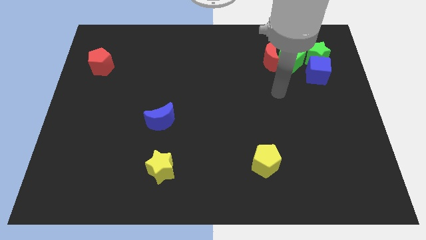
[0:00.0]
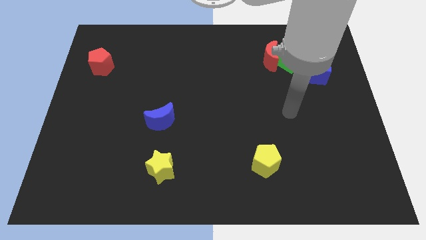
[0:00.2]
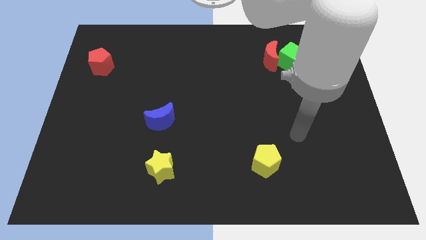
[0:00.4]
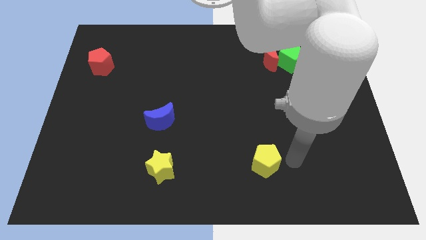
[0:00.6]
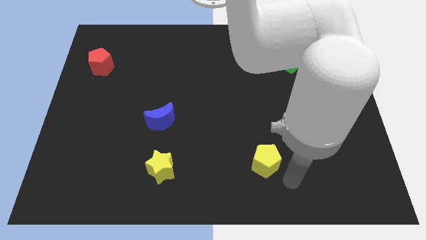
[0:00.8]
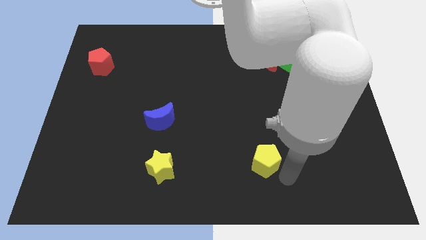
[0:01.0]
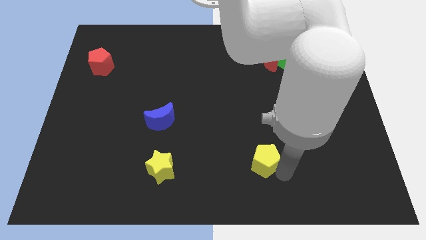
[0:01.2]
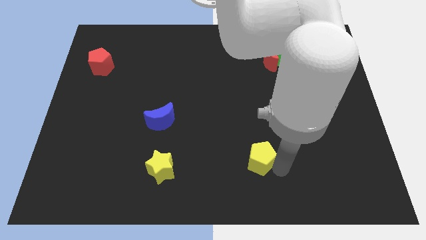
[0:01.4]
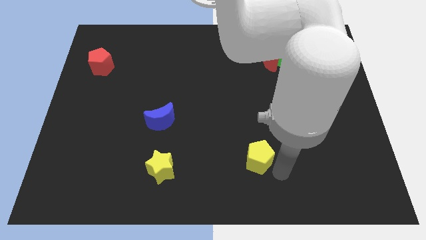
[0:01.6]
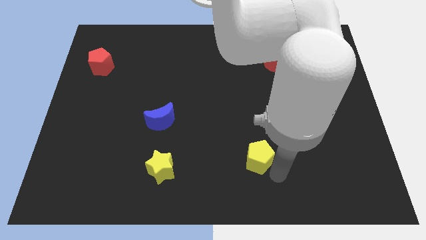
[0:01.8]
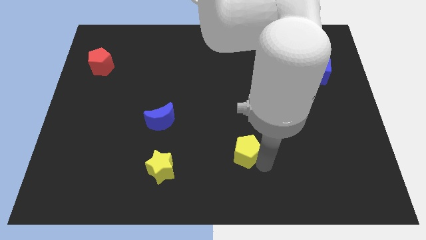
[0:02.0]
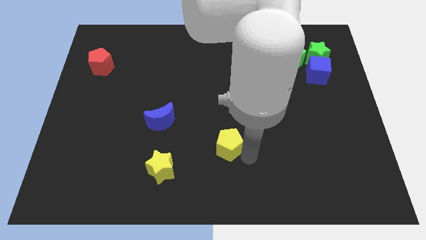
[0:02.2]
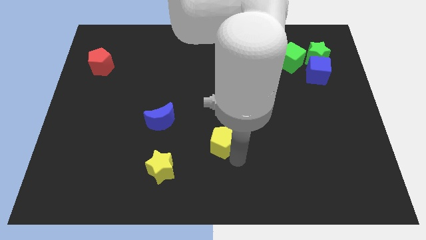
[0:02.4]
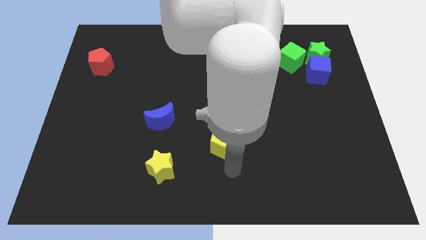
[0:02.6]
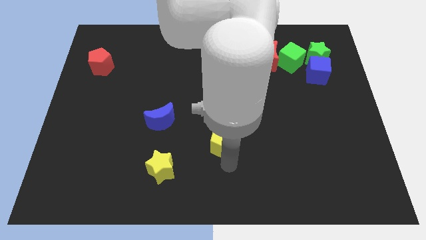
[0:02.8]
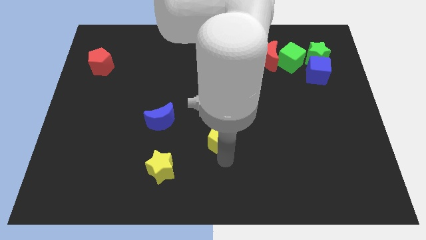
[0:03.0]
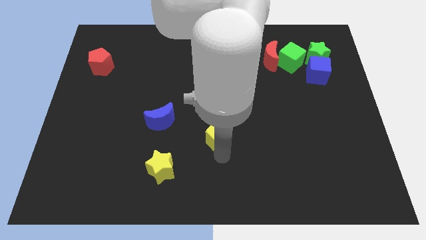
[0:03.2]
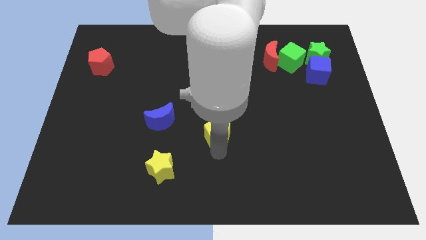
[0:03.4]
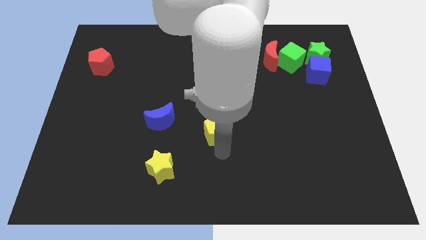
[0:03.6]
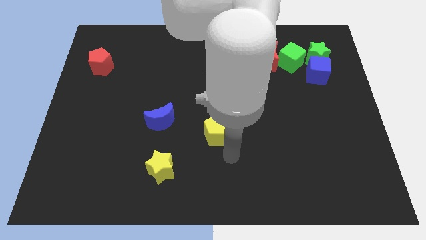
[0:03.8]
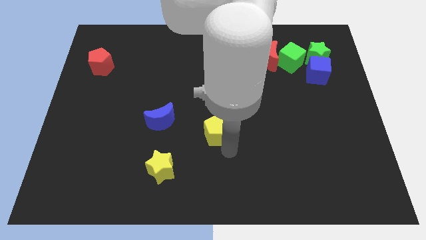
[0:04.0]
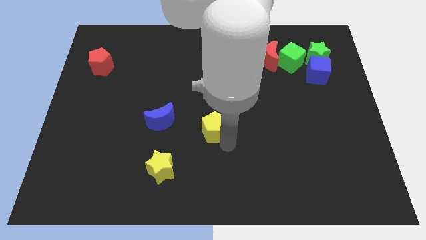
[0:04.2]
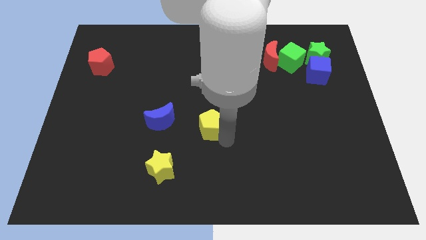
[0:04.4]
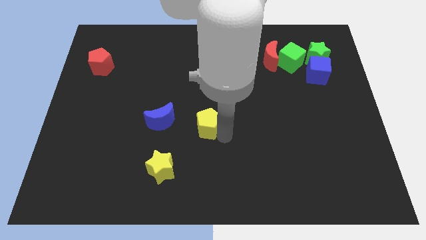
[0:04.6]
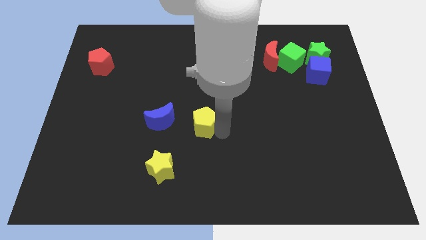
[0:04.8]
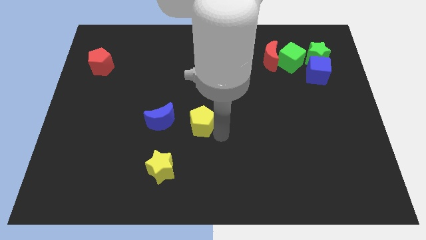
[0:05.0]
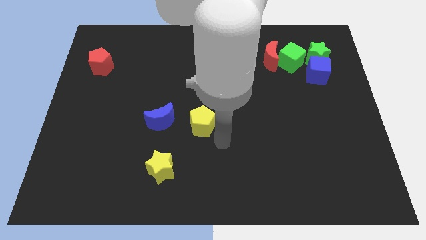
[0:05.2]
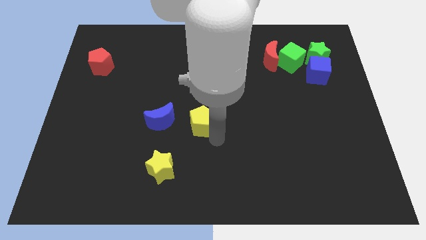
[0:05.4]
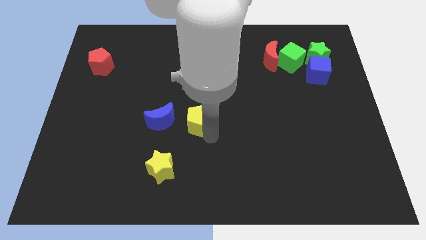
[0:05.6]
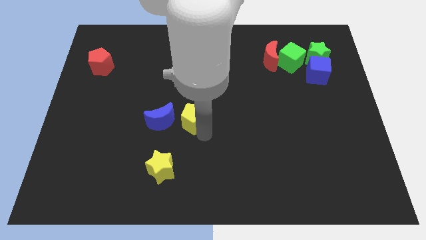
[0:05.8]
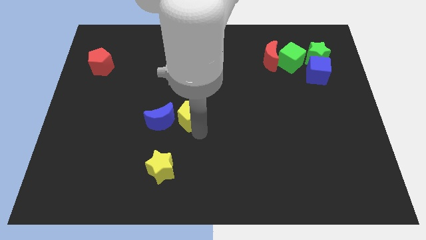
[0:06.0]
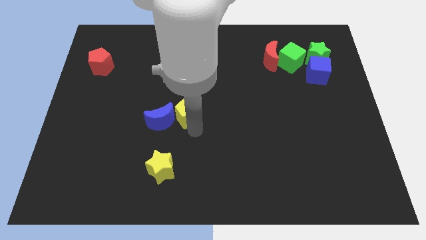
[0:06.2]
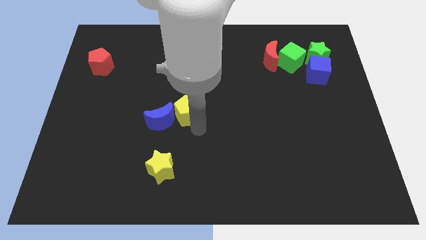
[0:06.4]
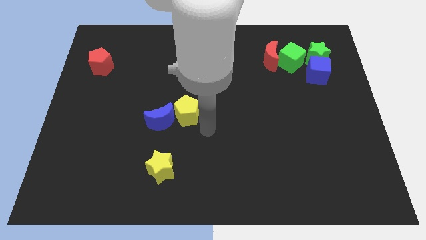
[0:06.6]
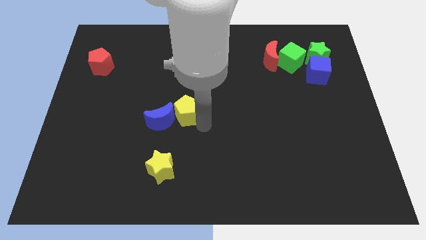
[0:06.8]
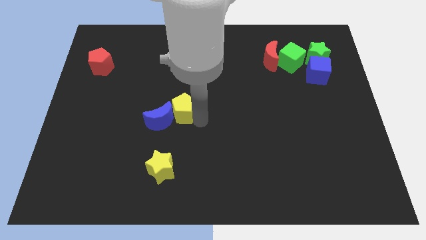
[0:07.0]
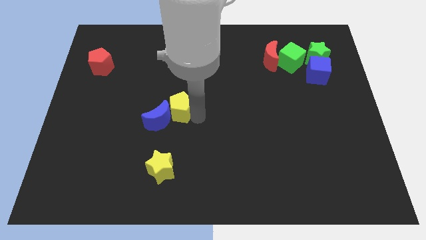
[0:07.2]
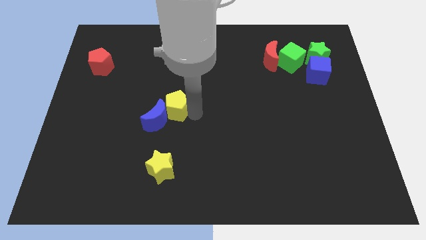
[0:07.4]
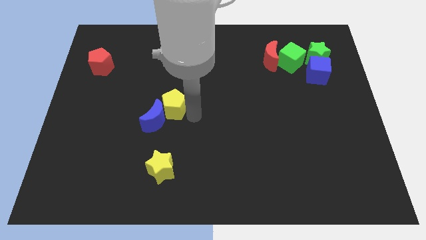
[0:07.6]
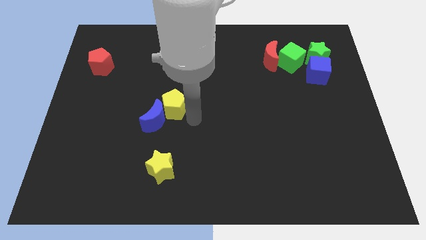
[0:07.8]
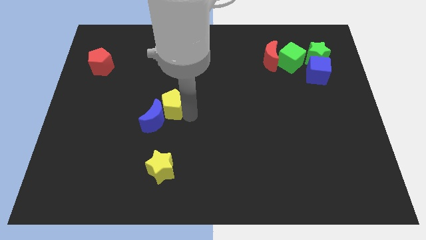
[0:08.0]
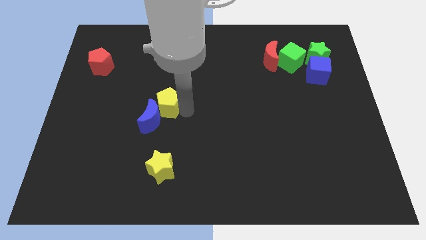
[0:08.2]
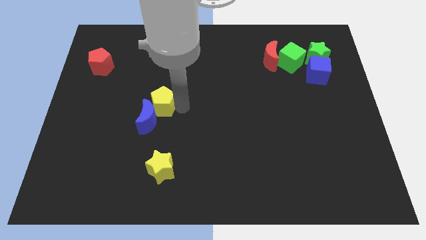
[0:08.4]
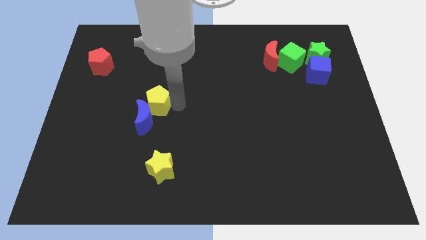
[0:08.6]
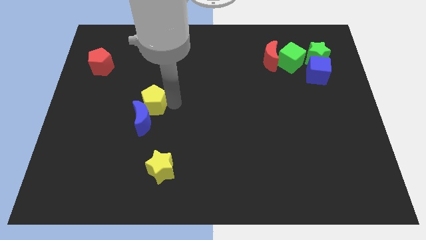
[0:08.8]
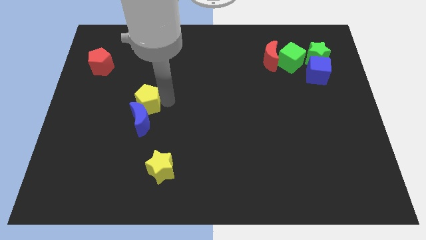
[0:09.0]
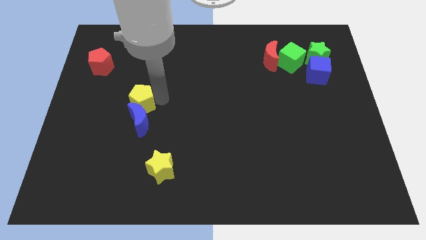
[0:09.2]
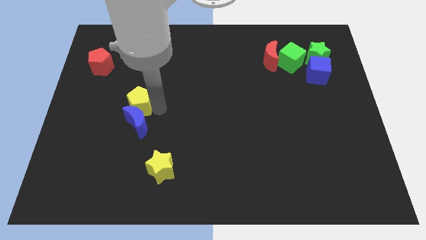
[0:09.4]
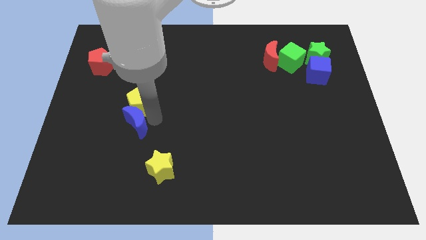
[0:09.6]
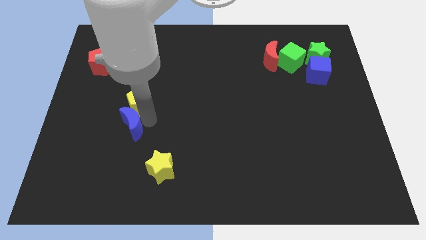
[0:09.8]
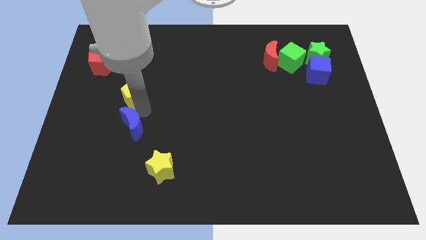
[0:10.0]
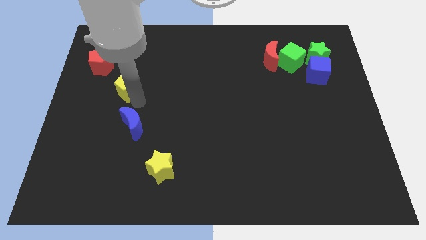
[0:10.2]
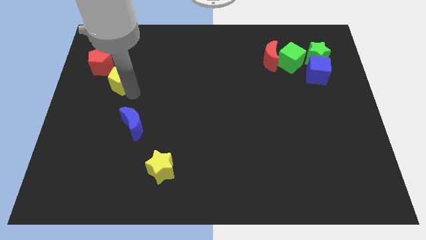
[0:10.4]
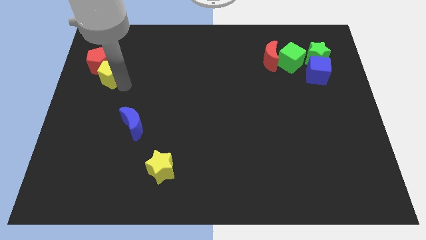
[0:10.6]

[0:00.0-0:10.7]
slide the yellow pentagon next to the red pentagon

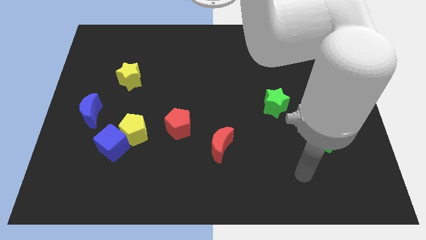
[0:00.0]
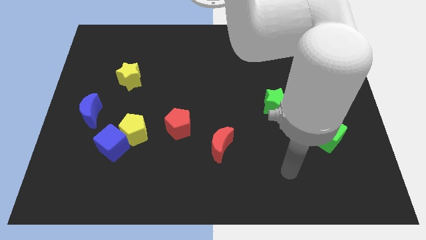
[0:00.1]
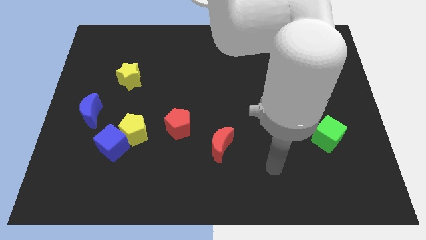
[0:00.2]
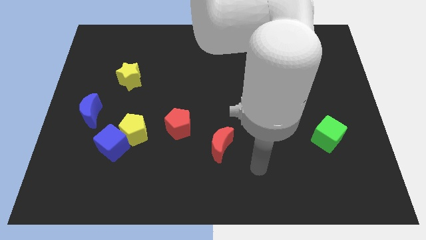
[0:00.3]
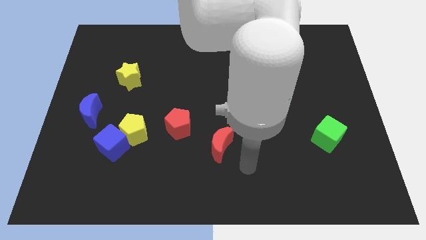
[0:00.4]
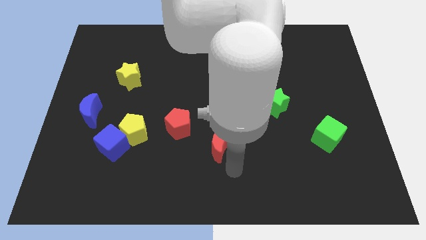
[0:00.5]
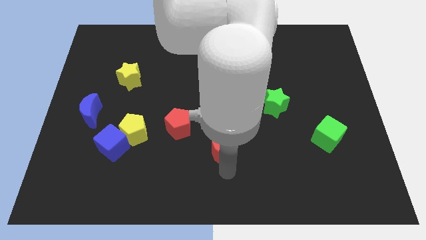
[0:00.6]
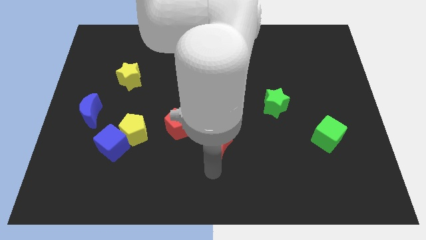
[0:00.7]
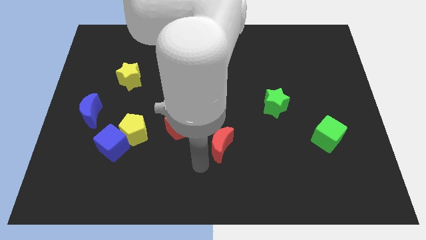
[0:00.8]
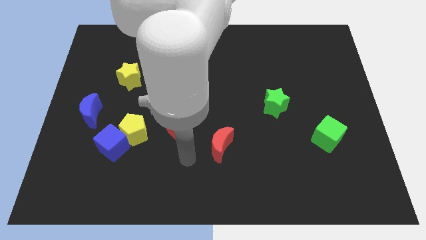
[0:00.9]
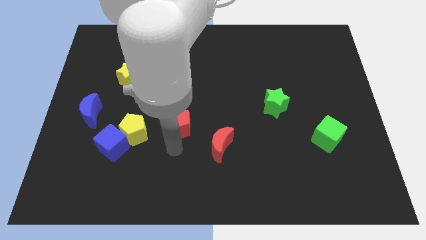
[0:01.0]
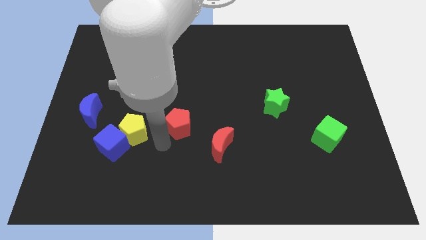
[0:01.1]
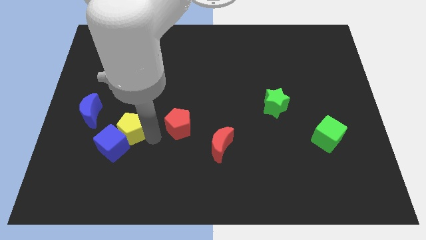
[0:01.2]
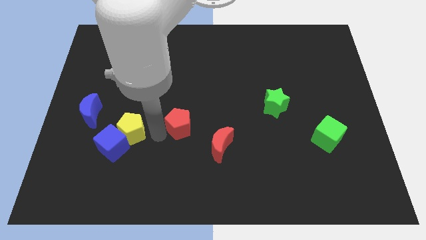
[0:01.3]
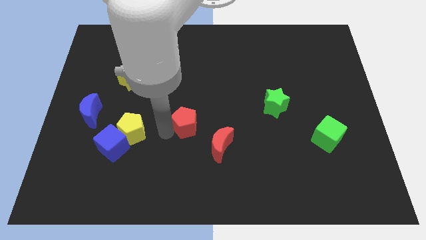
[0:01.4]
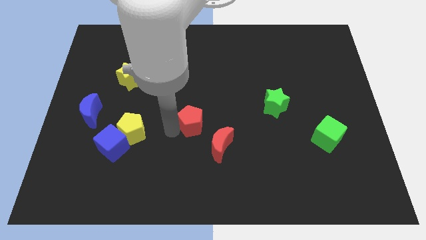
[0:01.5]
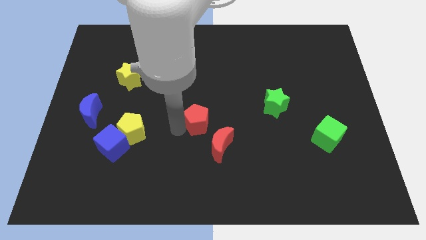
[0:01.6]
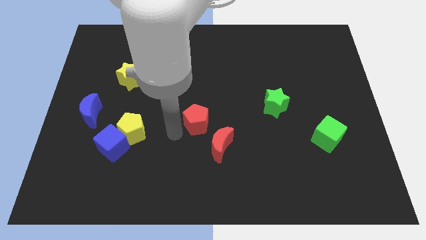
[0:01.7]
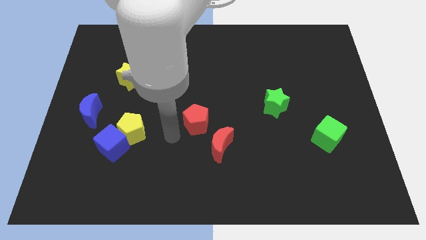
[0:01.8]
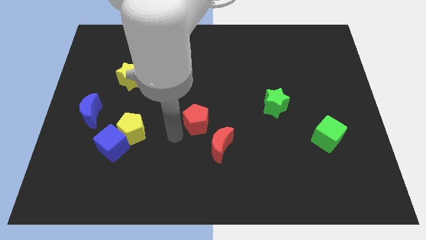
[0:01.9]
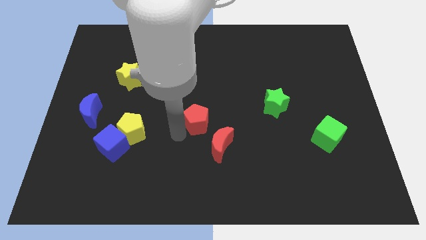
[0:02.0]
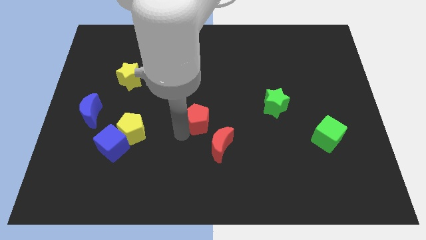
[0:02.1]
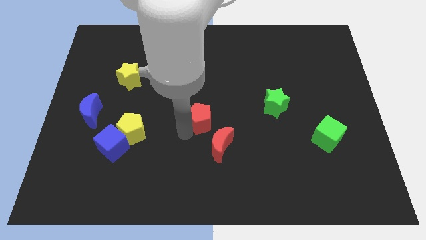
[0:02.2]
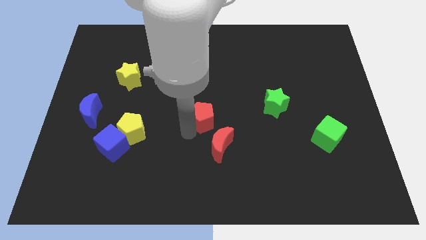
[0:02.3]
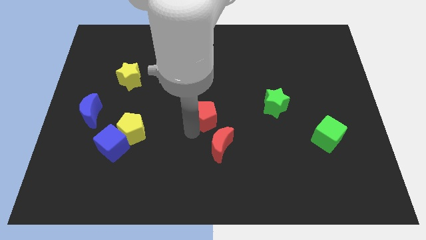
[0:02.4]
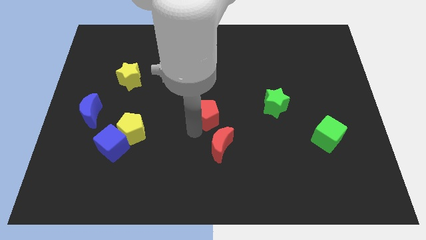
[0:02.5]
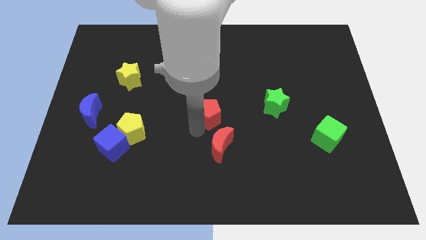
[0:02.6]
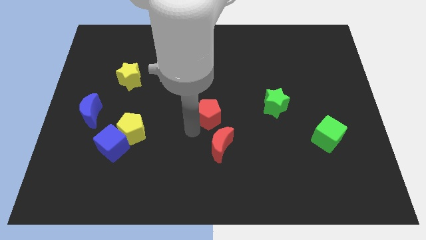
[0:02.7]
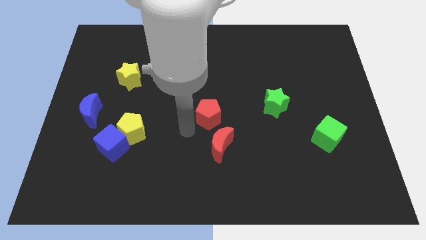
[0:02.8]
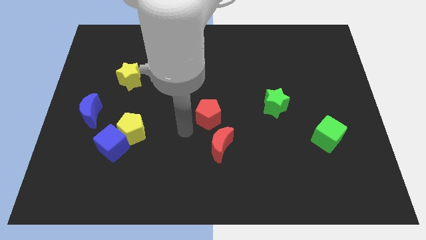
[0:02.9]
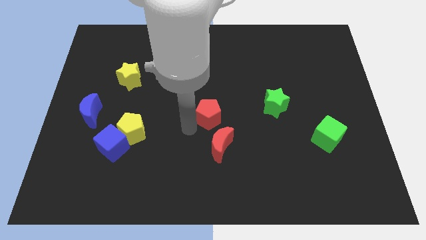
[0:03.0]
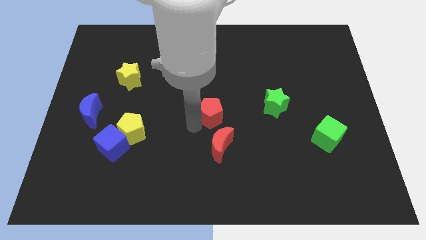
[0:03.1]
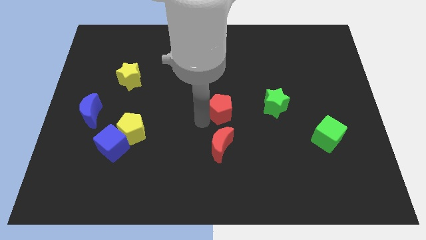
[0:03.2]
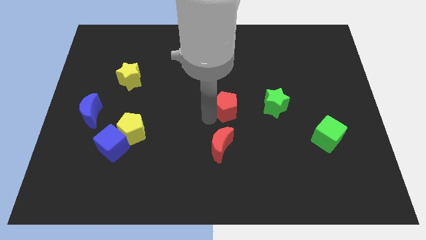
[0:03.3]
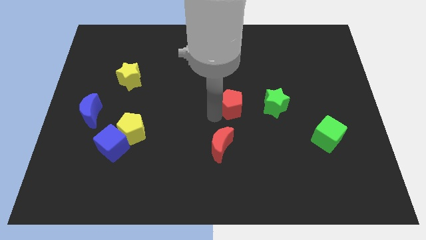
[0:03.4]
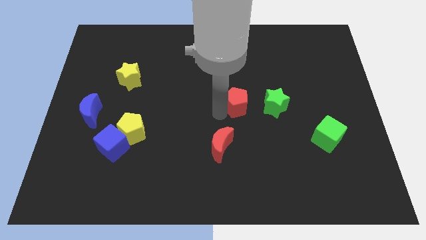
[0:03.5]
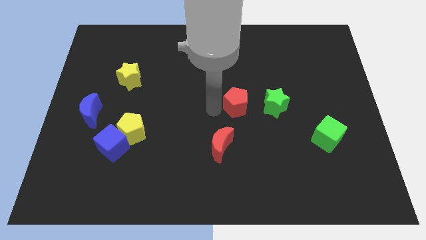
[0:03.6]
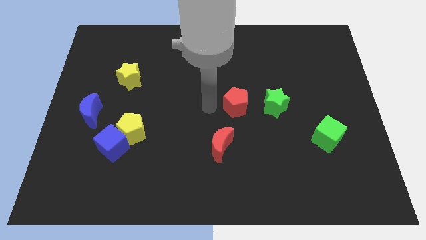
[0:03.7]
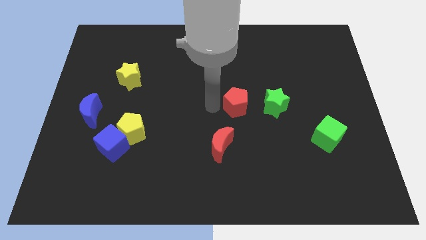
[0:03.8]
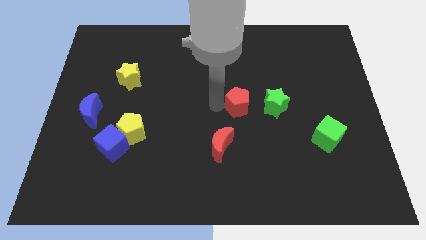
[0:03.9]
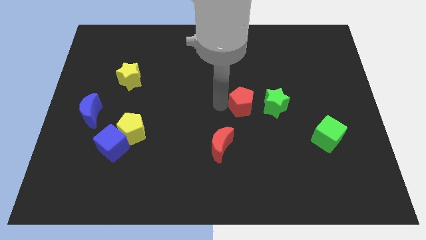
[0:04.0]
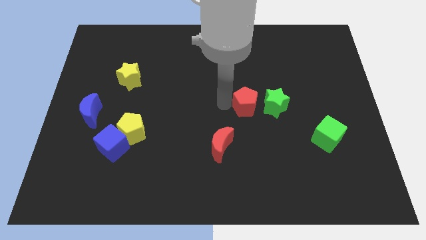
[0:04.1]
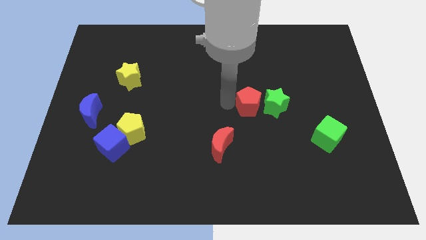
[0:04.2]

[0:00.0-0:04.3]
put the red pentagon close to the green star
